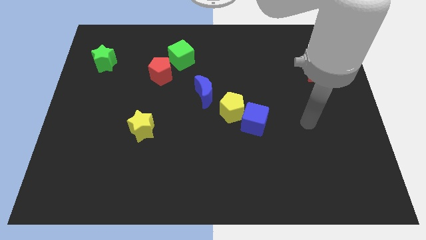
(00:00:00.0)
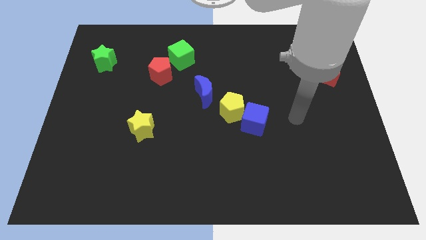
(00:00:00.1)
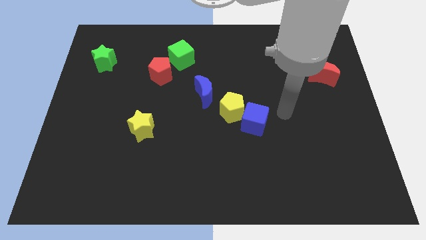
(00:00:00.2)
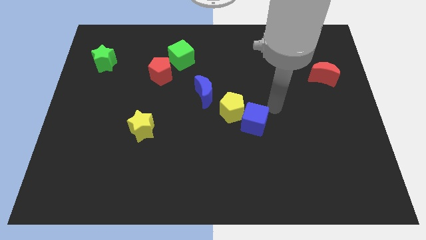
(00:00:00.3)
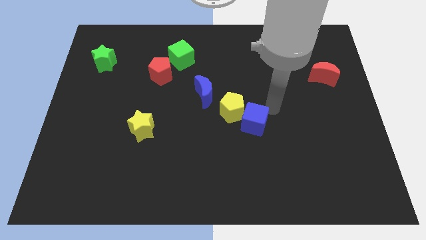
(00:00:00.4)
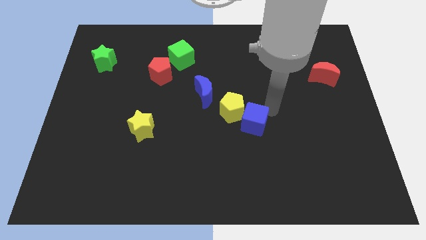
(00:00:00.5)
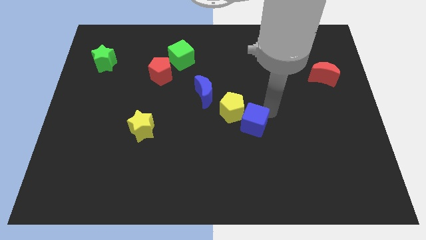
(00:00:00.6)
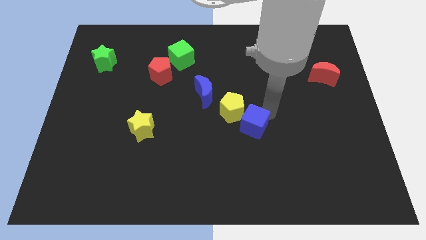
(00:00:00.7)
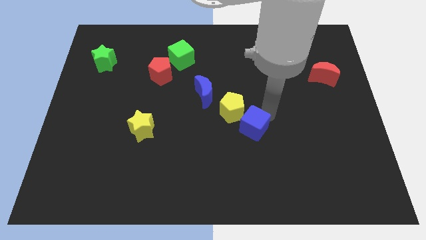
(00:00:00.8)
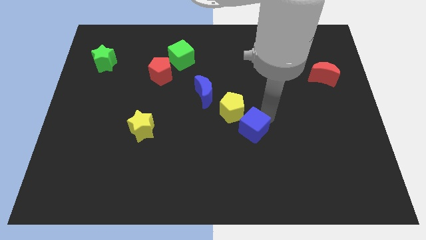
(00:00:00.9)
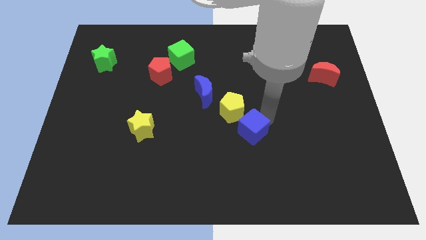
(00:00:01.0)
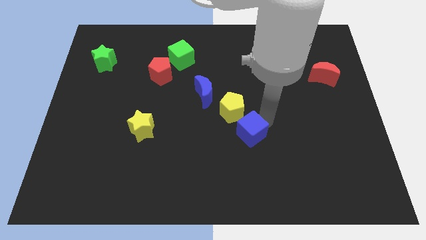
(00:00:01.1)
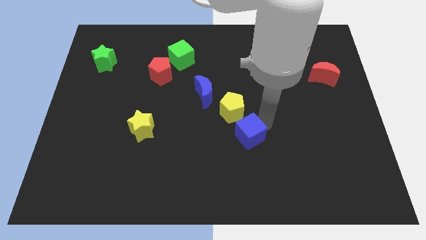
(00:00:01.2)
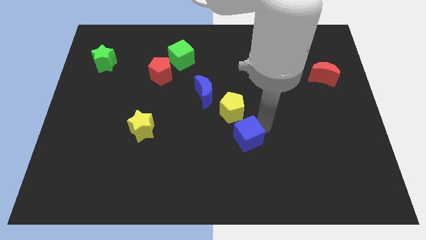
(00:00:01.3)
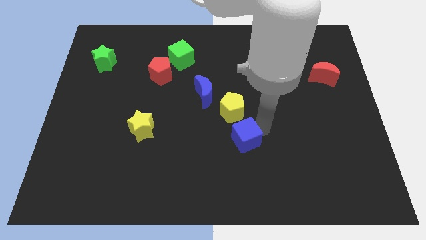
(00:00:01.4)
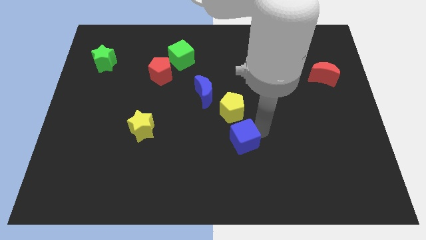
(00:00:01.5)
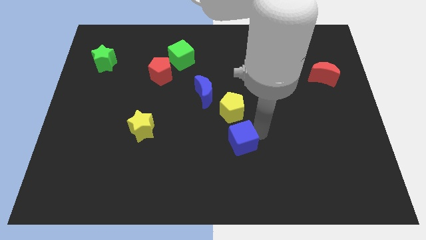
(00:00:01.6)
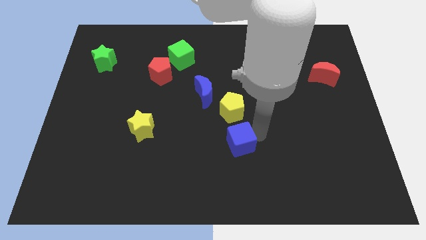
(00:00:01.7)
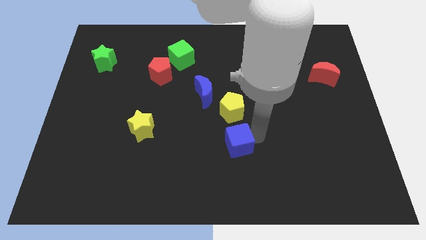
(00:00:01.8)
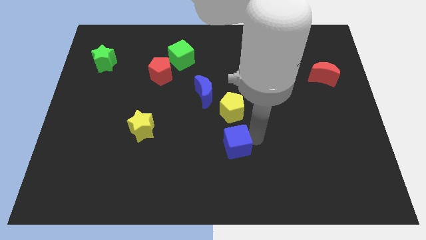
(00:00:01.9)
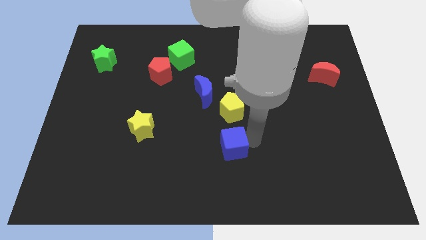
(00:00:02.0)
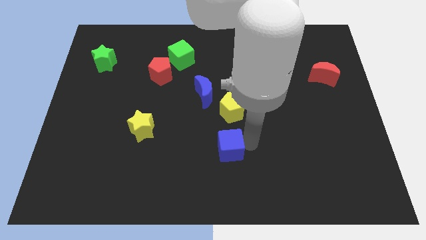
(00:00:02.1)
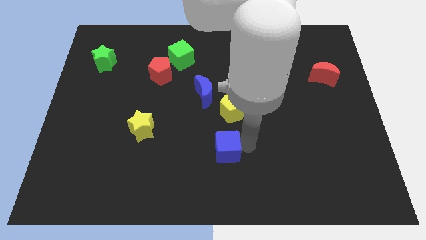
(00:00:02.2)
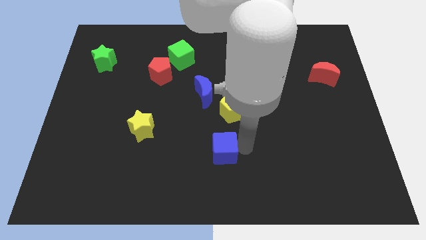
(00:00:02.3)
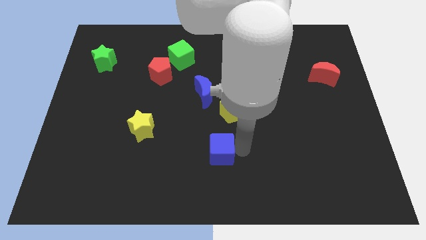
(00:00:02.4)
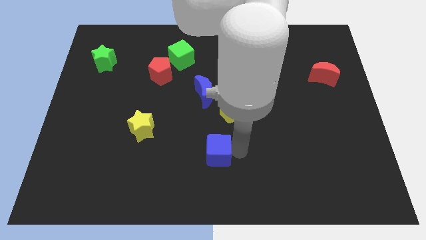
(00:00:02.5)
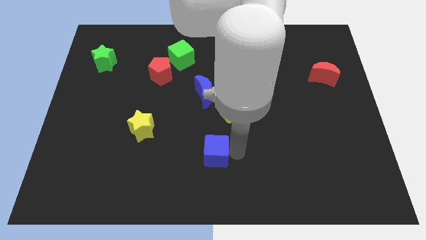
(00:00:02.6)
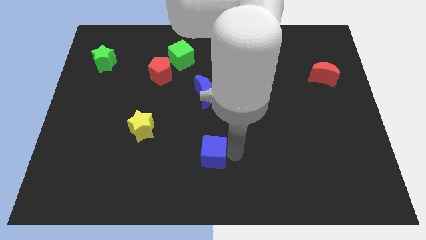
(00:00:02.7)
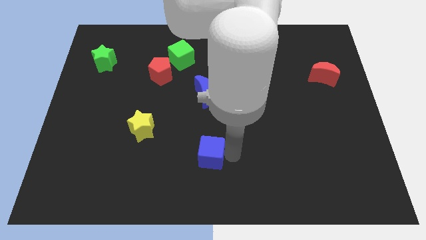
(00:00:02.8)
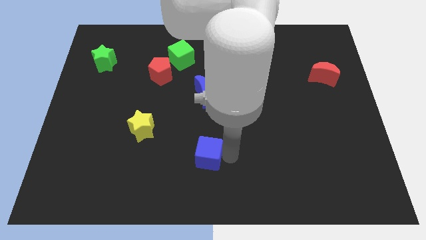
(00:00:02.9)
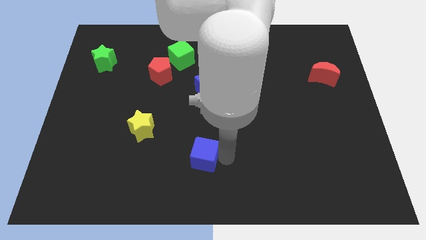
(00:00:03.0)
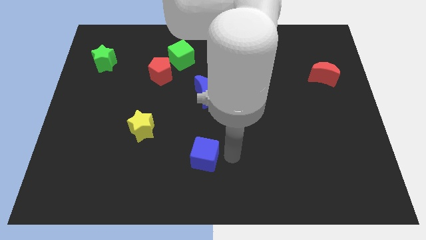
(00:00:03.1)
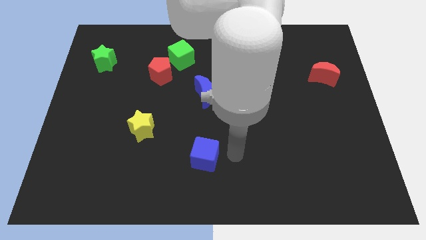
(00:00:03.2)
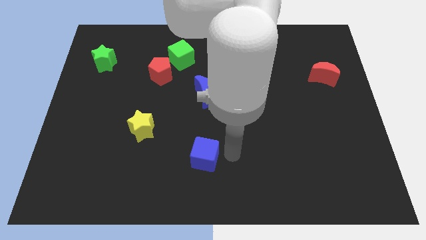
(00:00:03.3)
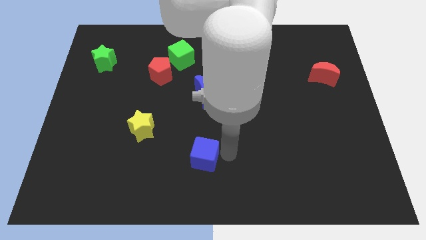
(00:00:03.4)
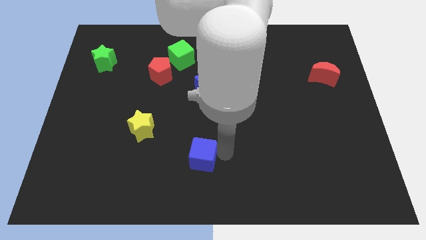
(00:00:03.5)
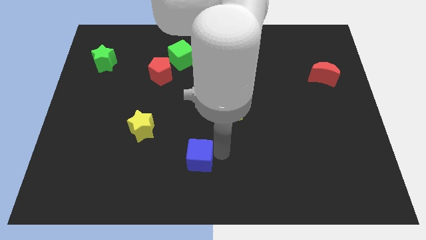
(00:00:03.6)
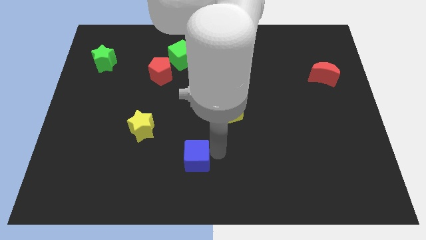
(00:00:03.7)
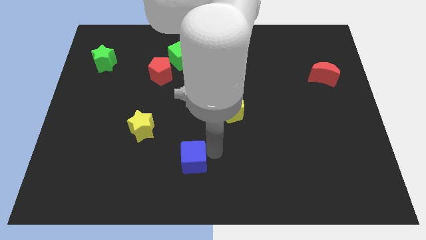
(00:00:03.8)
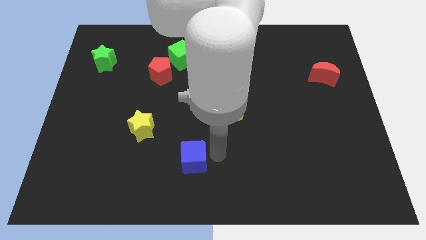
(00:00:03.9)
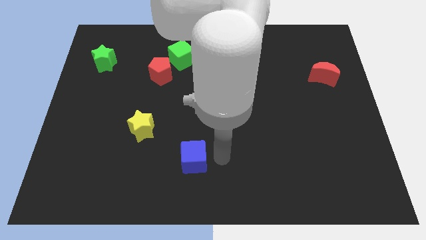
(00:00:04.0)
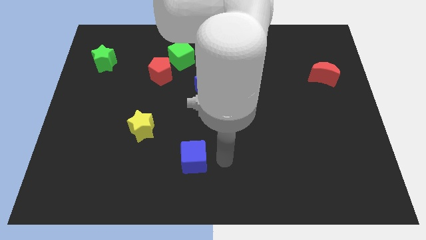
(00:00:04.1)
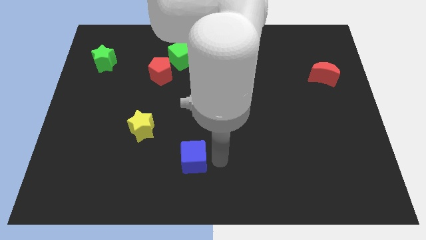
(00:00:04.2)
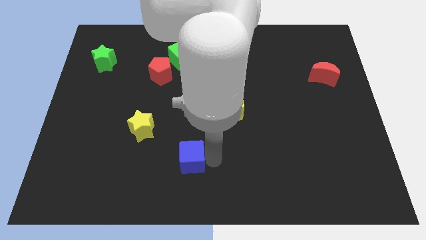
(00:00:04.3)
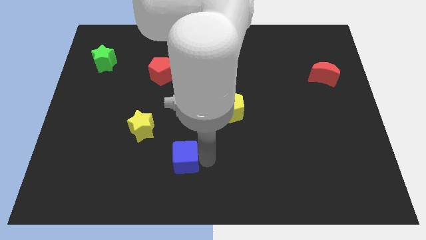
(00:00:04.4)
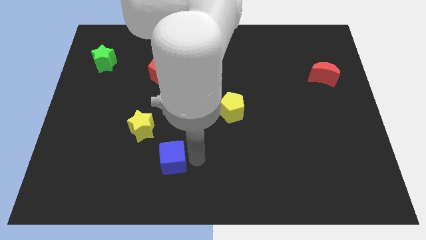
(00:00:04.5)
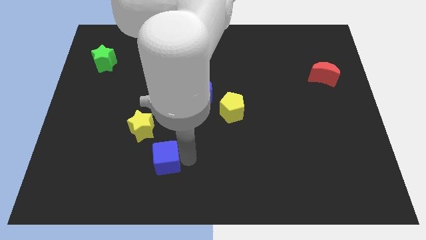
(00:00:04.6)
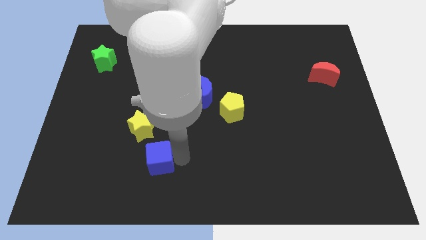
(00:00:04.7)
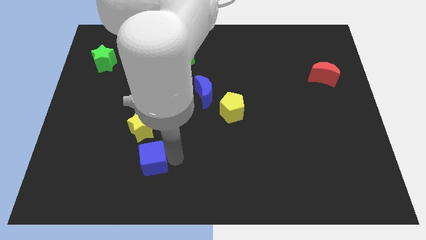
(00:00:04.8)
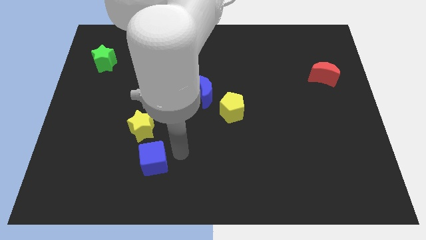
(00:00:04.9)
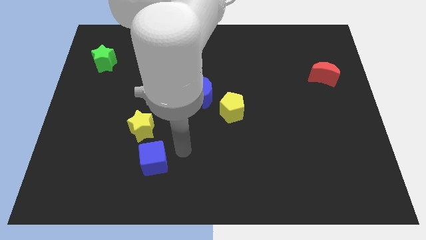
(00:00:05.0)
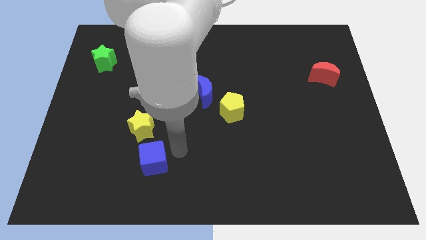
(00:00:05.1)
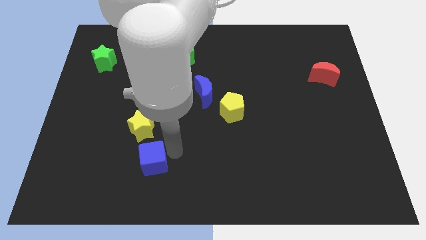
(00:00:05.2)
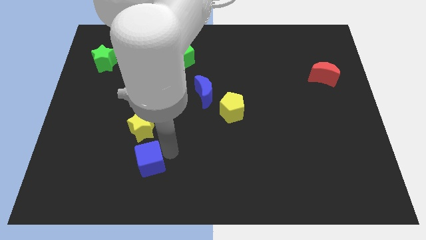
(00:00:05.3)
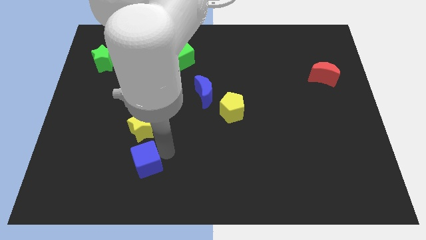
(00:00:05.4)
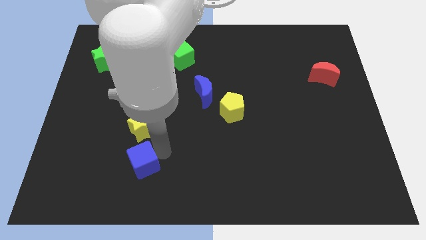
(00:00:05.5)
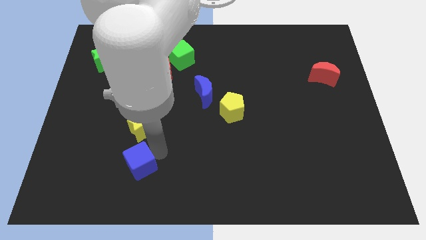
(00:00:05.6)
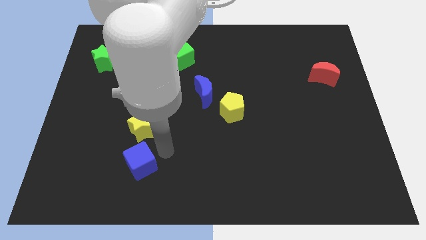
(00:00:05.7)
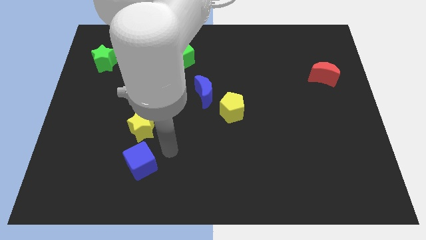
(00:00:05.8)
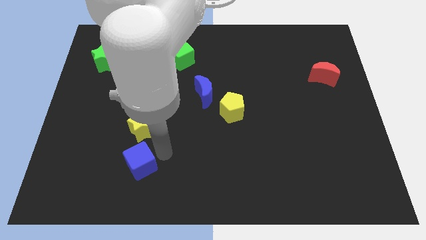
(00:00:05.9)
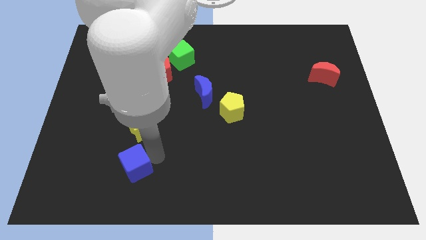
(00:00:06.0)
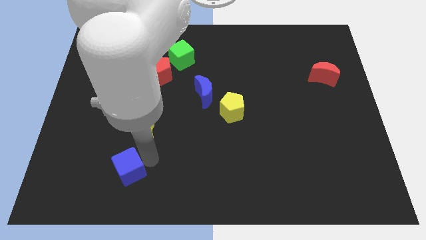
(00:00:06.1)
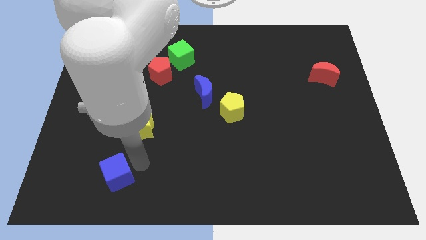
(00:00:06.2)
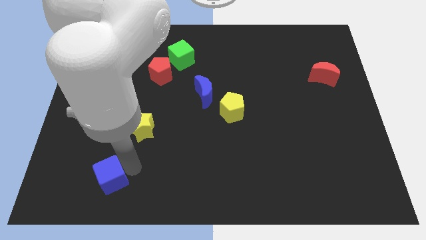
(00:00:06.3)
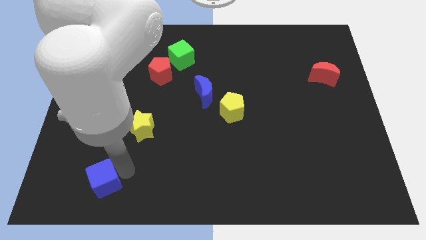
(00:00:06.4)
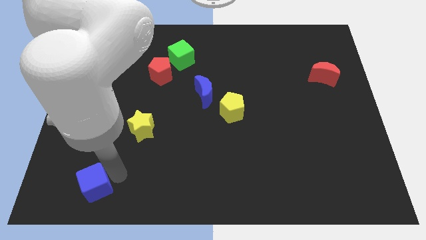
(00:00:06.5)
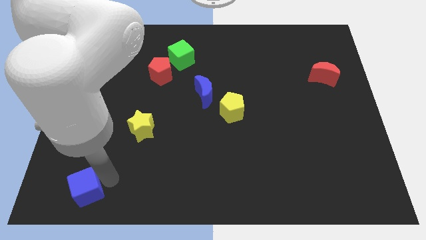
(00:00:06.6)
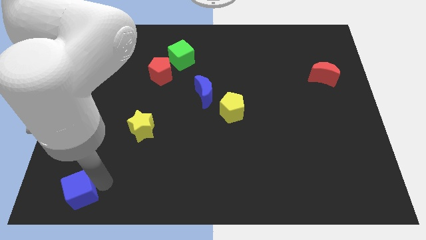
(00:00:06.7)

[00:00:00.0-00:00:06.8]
slide the blue cube to the lower left corner
